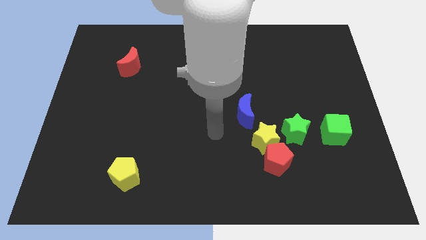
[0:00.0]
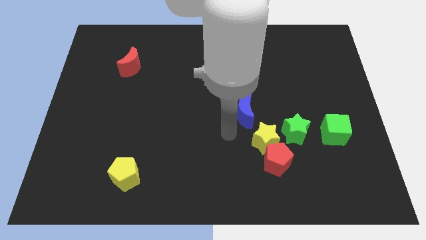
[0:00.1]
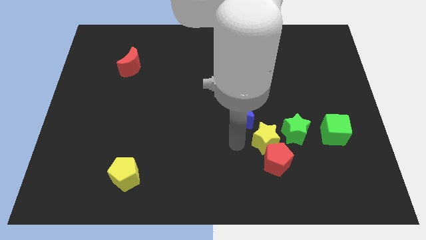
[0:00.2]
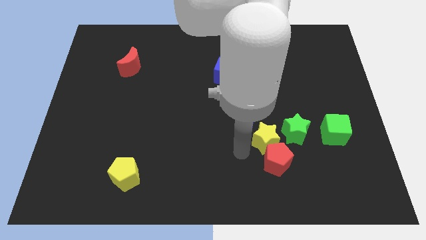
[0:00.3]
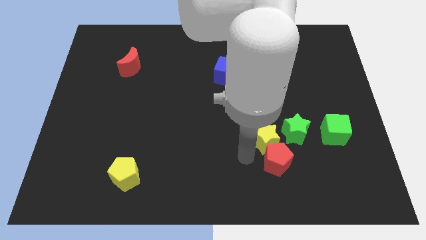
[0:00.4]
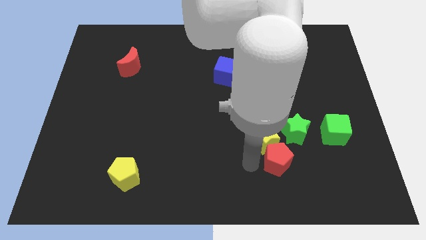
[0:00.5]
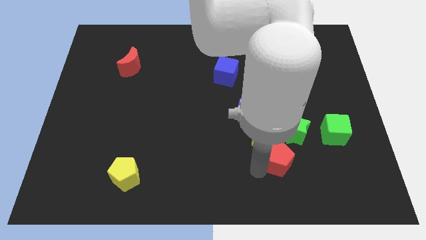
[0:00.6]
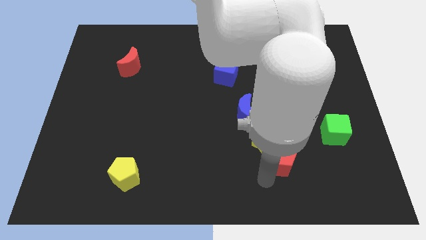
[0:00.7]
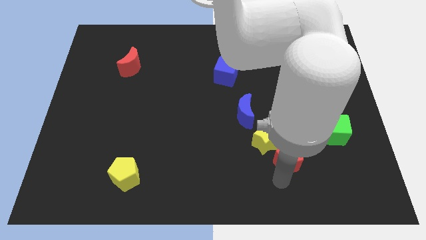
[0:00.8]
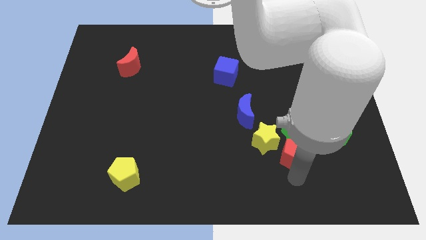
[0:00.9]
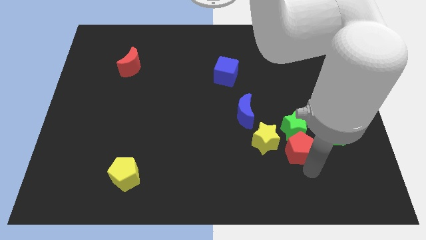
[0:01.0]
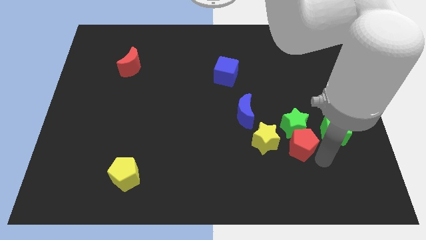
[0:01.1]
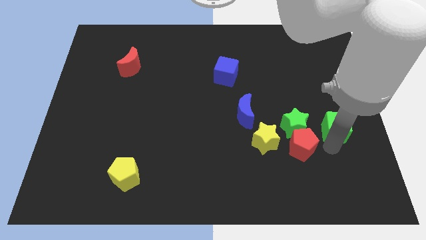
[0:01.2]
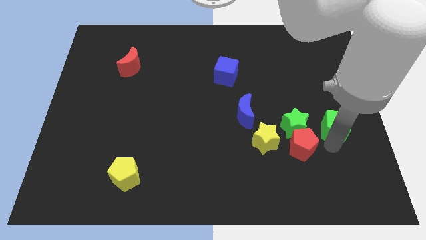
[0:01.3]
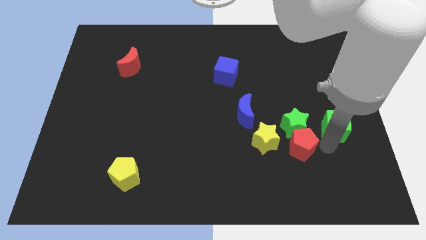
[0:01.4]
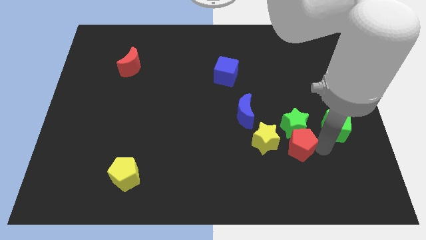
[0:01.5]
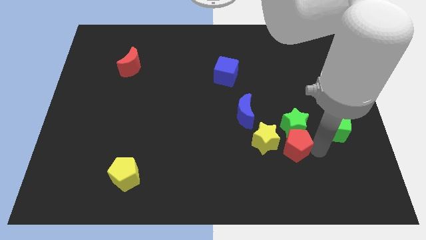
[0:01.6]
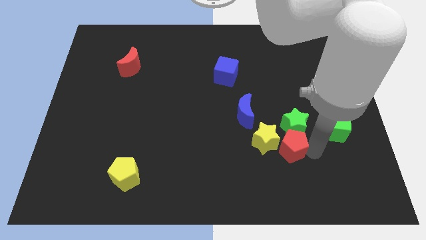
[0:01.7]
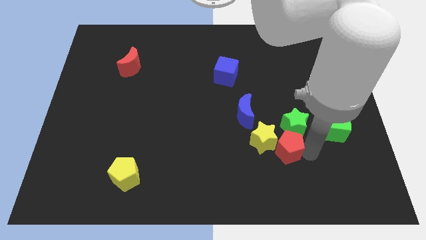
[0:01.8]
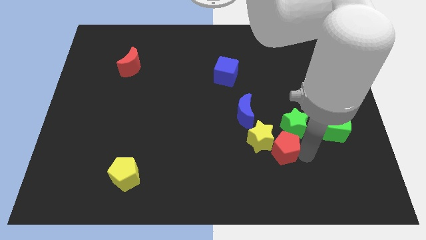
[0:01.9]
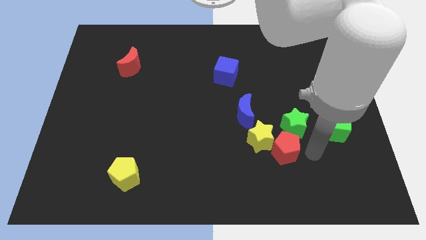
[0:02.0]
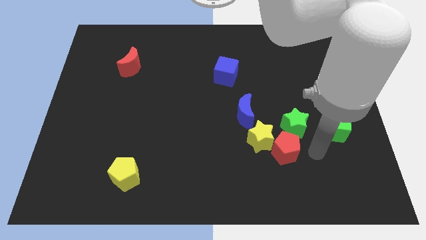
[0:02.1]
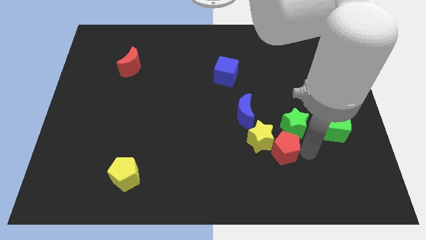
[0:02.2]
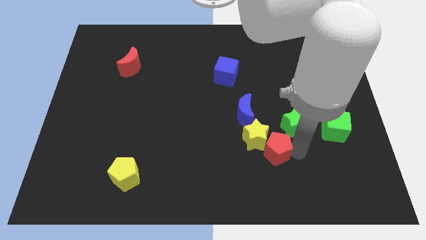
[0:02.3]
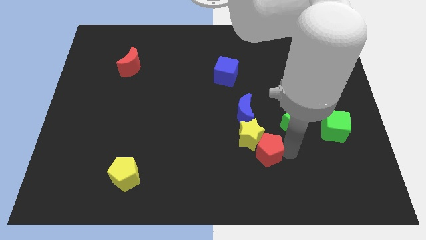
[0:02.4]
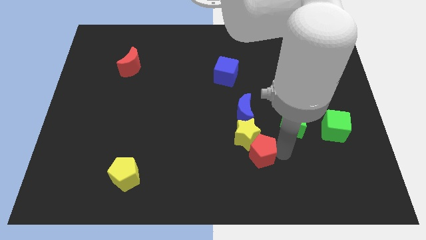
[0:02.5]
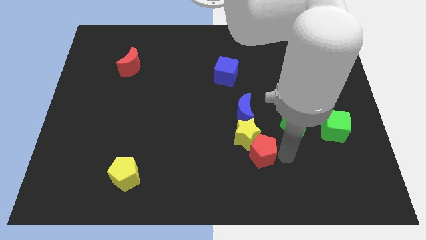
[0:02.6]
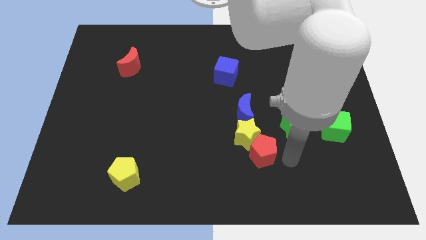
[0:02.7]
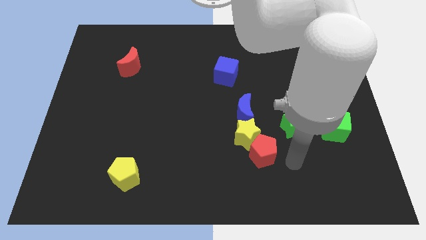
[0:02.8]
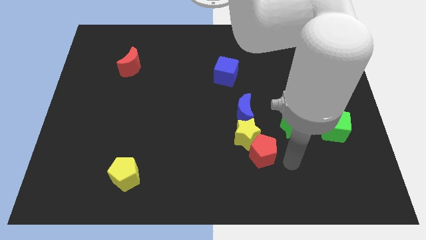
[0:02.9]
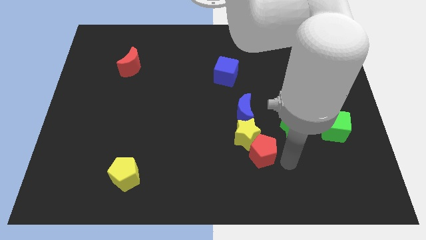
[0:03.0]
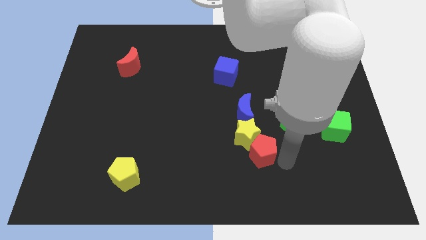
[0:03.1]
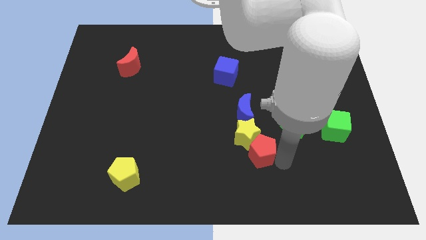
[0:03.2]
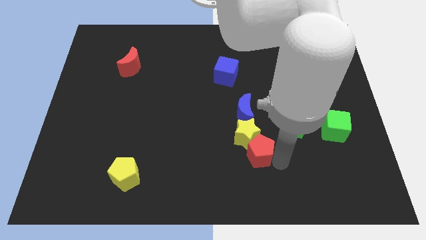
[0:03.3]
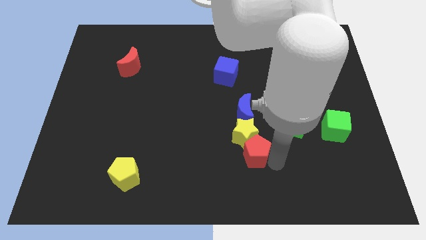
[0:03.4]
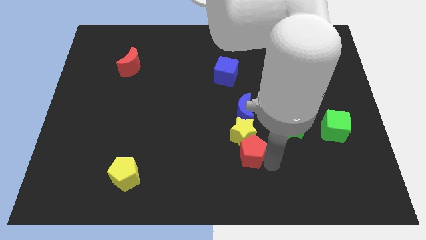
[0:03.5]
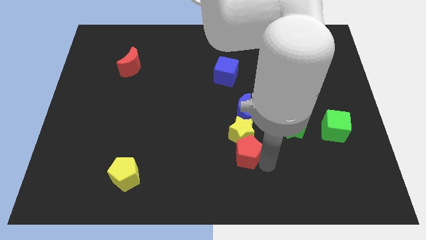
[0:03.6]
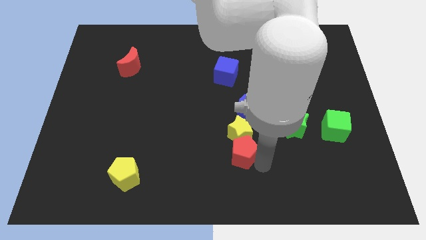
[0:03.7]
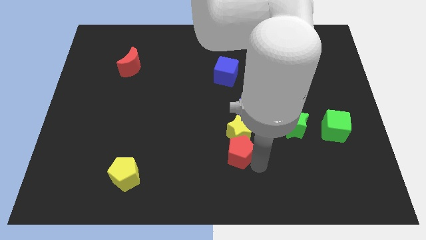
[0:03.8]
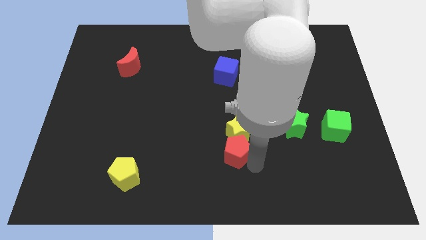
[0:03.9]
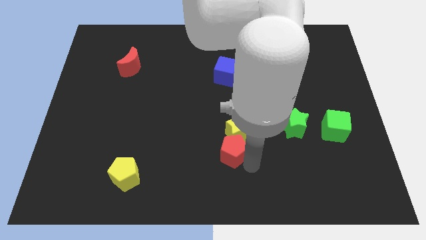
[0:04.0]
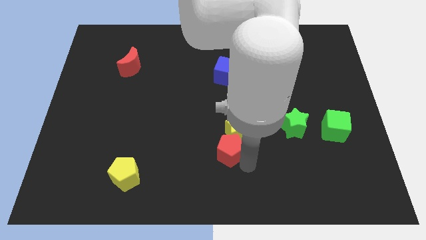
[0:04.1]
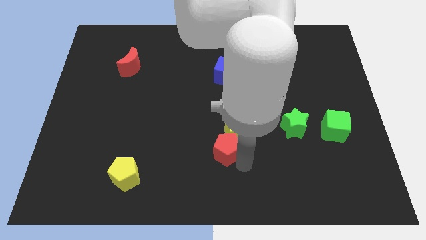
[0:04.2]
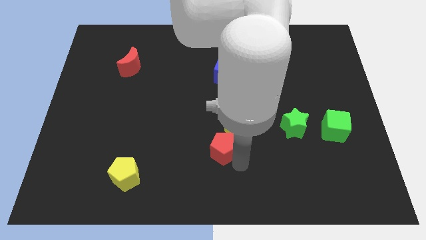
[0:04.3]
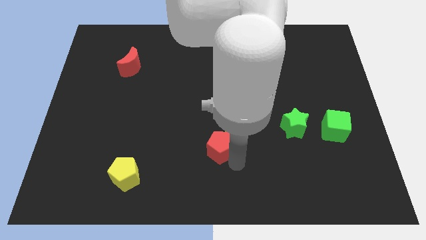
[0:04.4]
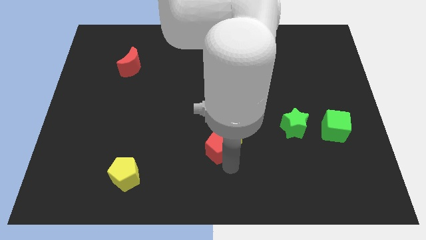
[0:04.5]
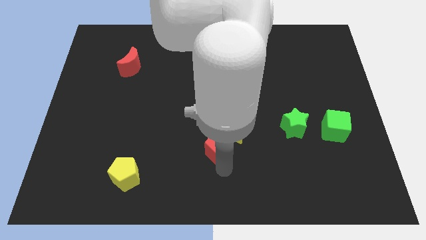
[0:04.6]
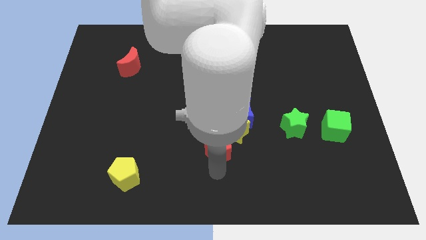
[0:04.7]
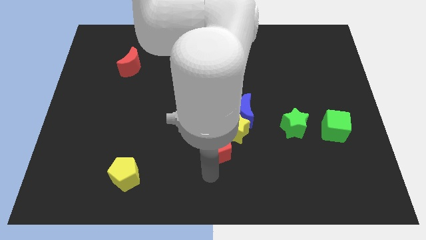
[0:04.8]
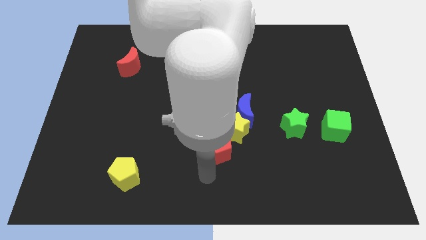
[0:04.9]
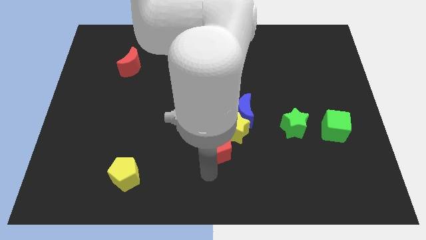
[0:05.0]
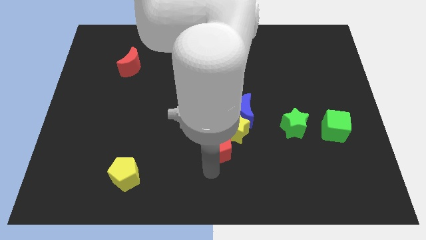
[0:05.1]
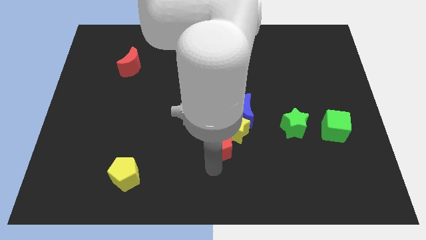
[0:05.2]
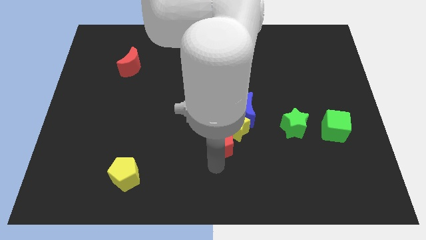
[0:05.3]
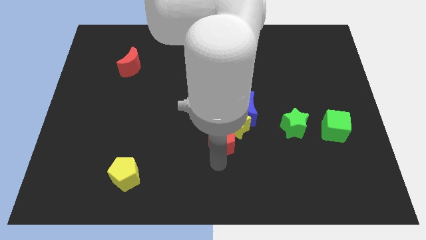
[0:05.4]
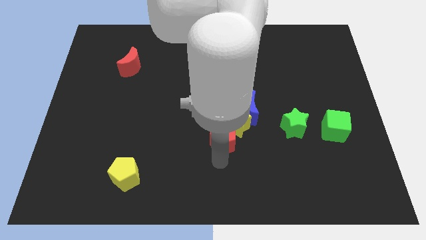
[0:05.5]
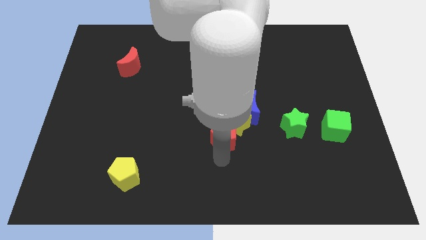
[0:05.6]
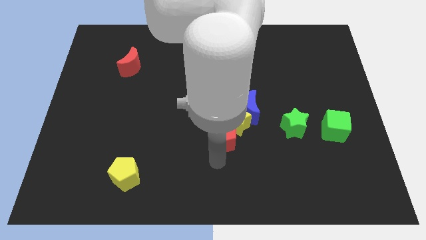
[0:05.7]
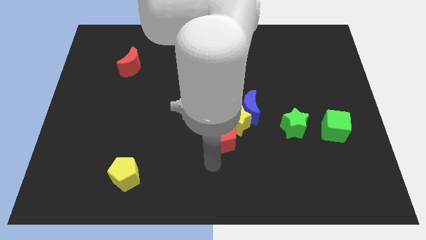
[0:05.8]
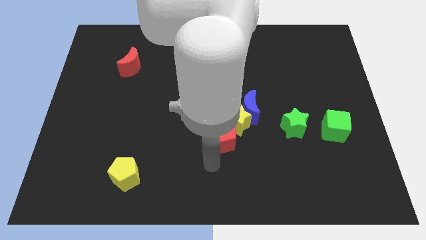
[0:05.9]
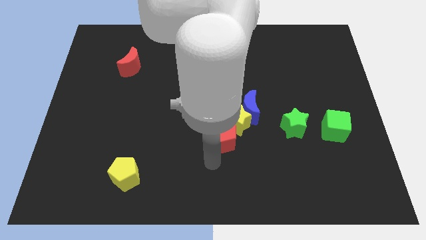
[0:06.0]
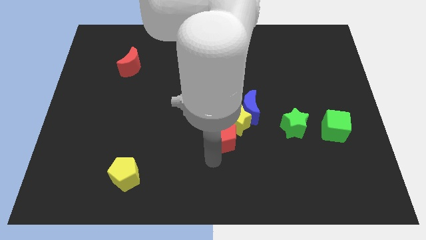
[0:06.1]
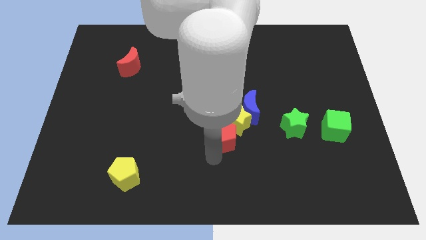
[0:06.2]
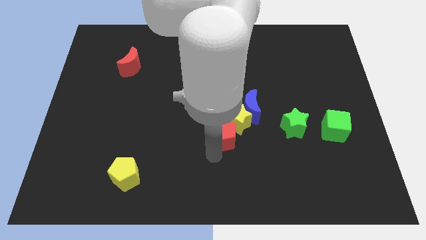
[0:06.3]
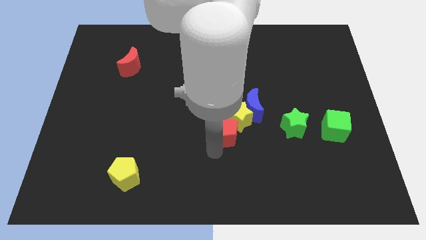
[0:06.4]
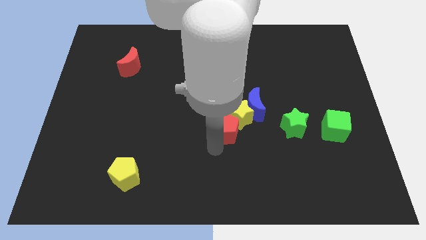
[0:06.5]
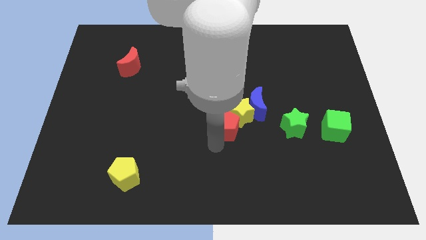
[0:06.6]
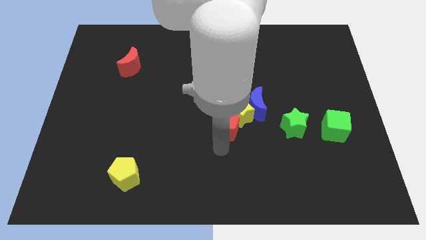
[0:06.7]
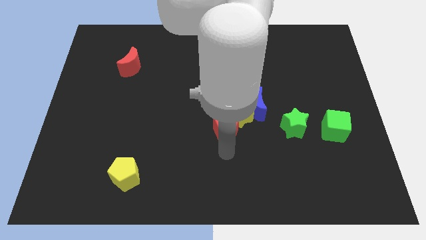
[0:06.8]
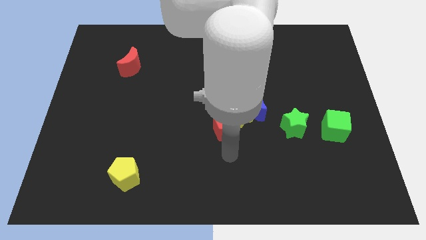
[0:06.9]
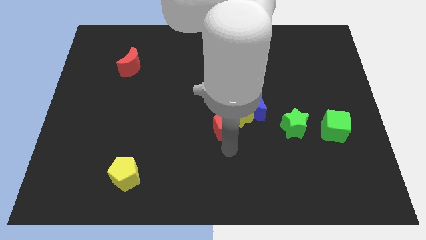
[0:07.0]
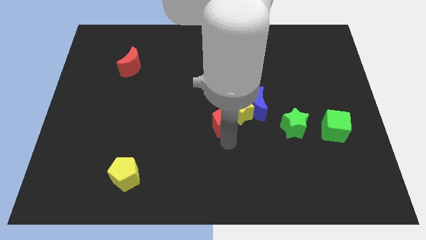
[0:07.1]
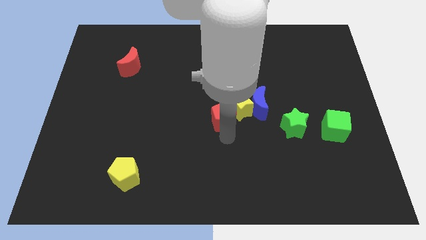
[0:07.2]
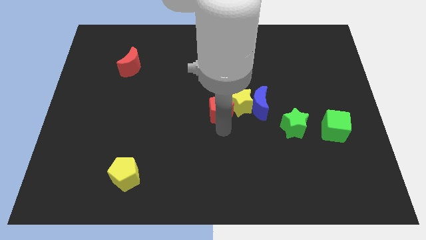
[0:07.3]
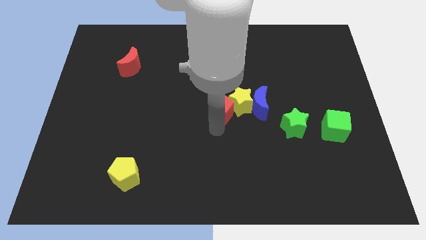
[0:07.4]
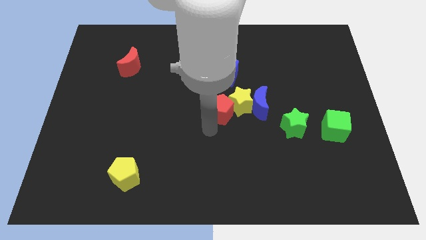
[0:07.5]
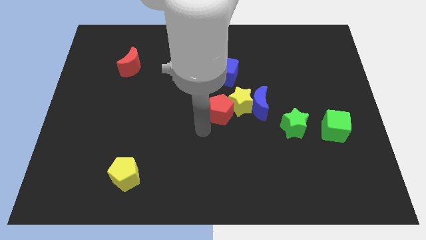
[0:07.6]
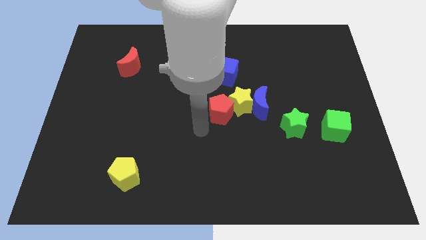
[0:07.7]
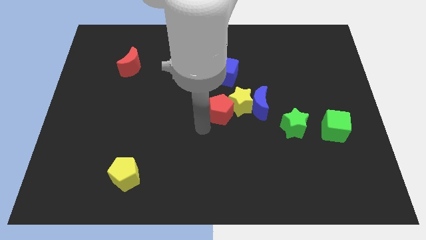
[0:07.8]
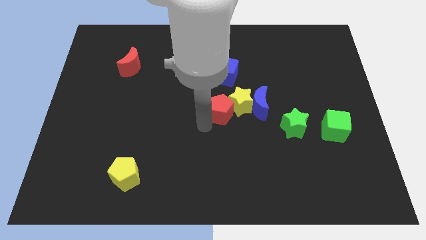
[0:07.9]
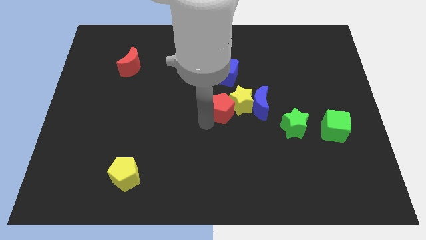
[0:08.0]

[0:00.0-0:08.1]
move the red pentagon up a bit
